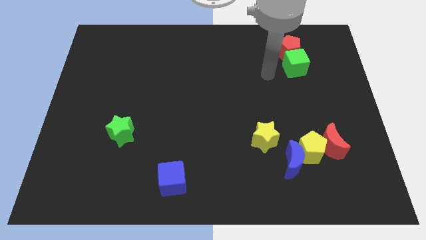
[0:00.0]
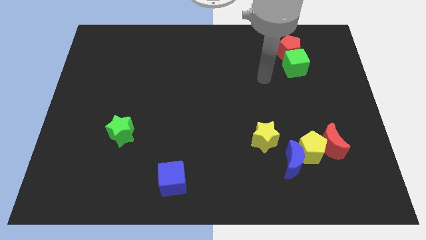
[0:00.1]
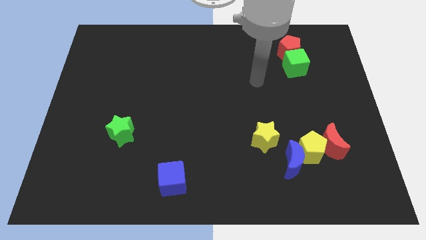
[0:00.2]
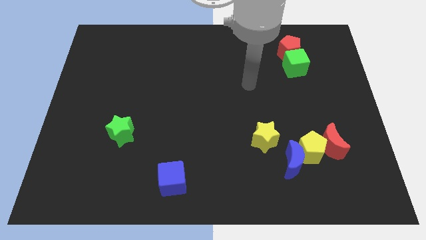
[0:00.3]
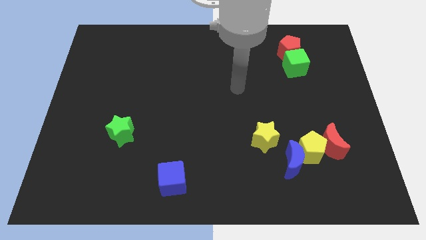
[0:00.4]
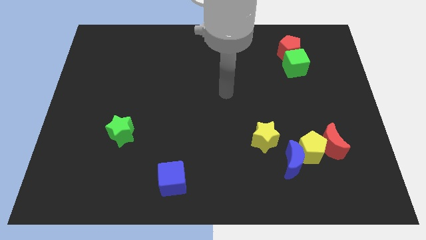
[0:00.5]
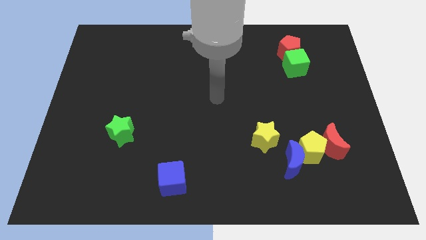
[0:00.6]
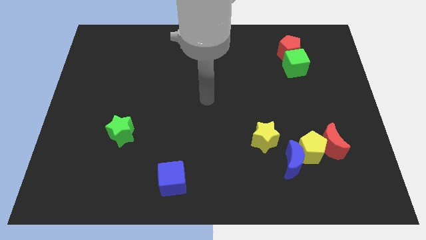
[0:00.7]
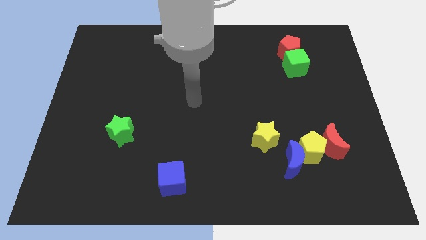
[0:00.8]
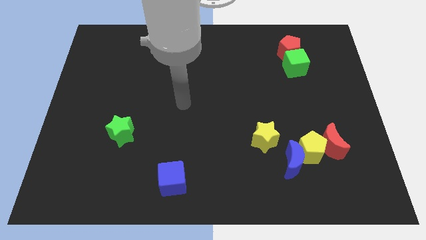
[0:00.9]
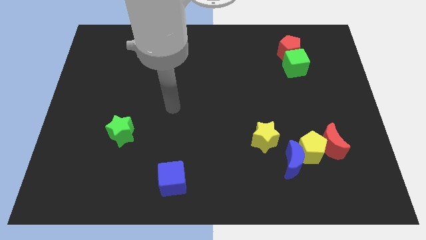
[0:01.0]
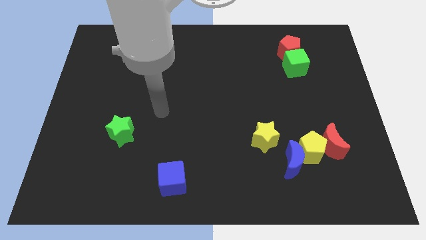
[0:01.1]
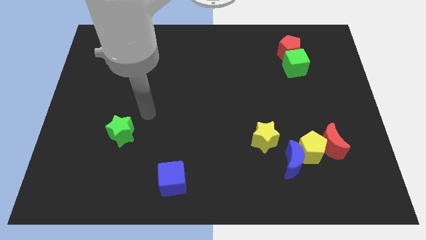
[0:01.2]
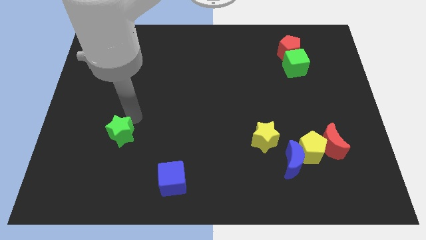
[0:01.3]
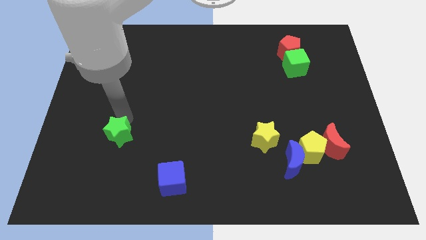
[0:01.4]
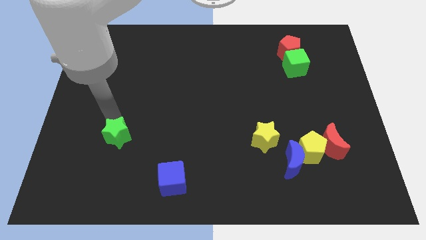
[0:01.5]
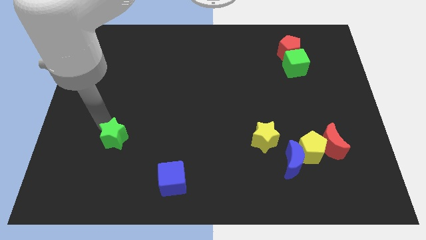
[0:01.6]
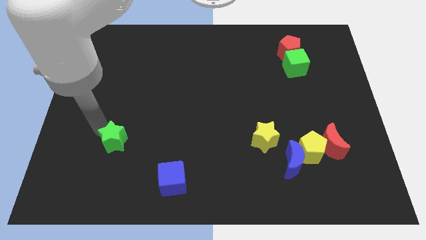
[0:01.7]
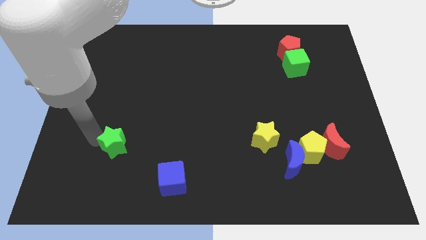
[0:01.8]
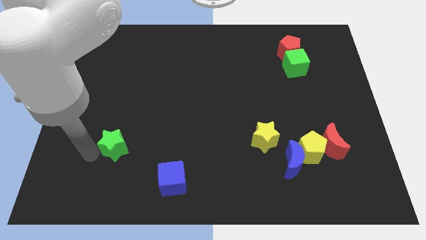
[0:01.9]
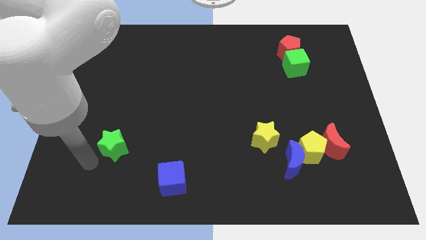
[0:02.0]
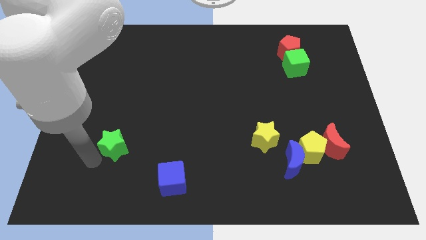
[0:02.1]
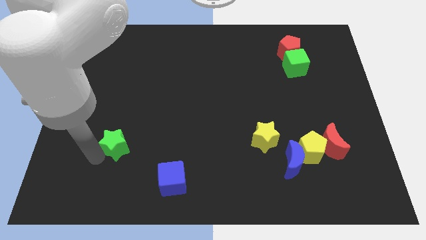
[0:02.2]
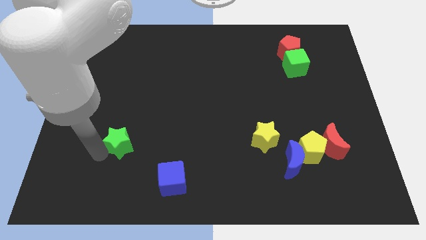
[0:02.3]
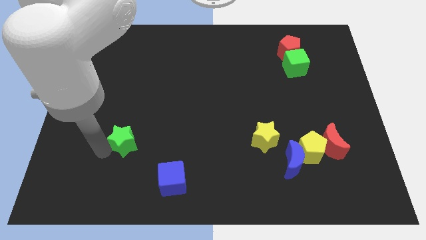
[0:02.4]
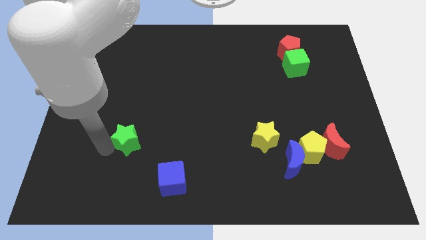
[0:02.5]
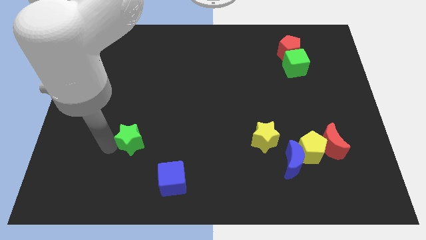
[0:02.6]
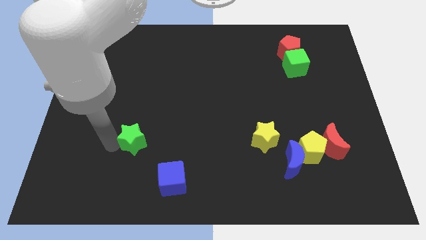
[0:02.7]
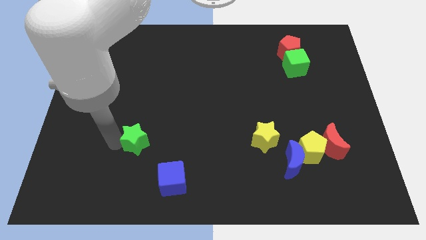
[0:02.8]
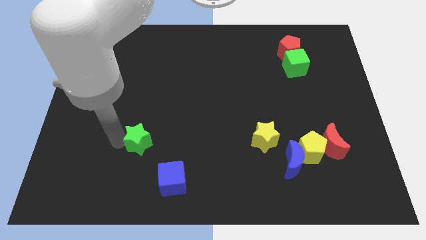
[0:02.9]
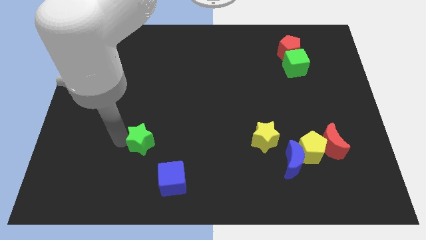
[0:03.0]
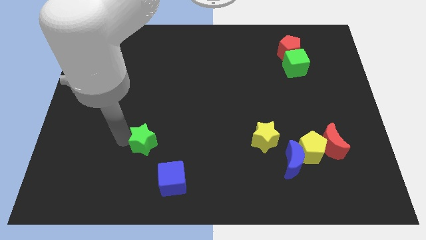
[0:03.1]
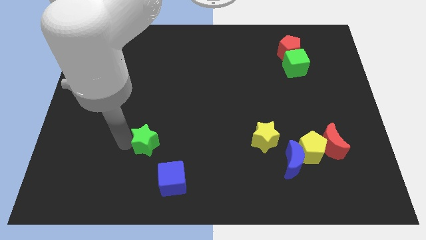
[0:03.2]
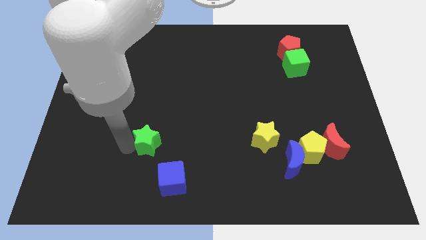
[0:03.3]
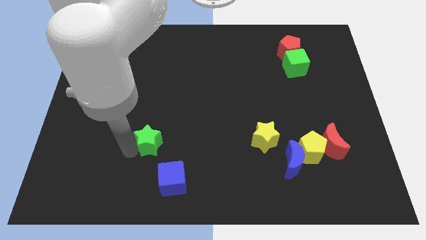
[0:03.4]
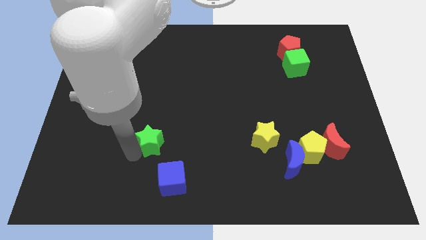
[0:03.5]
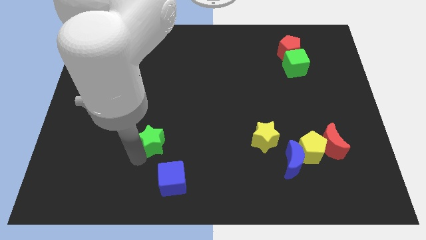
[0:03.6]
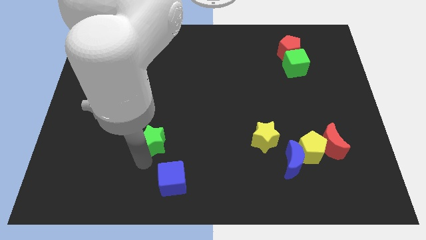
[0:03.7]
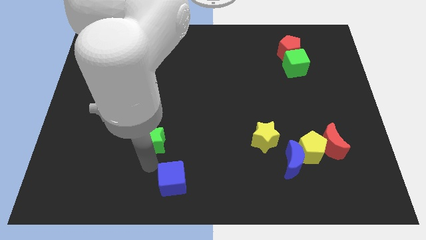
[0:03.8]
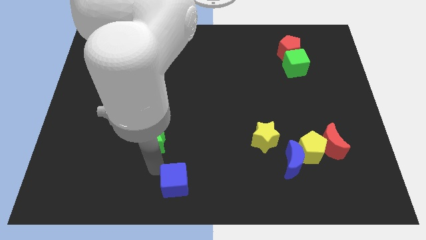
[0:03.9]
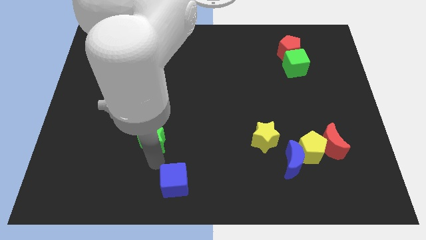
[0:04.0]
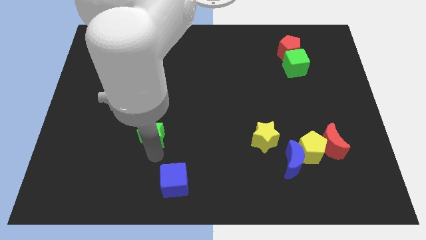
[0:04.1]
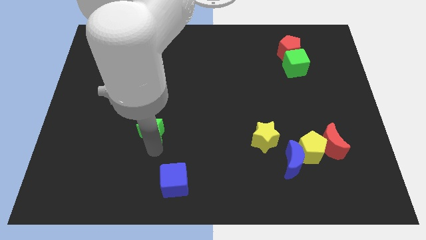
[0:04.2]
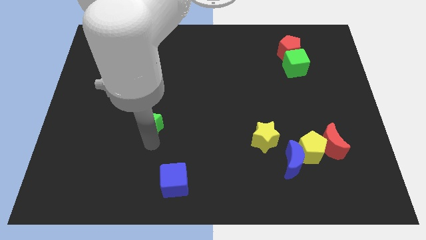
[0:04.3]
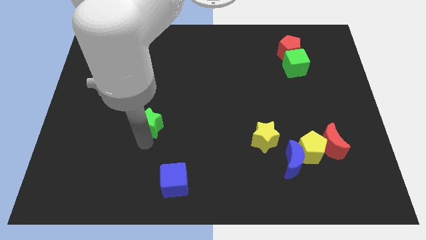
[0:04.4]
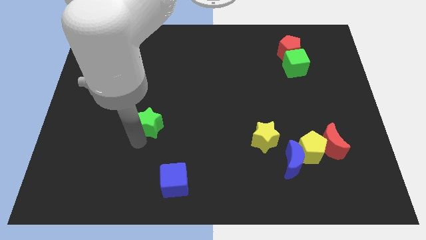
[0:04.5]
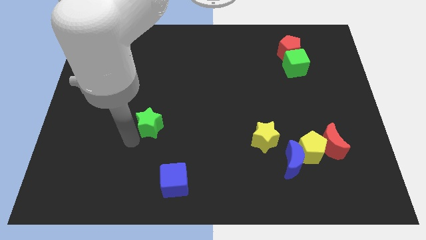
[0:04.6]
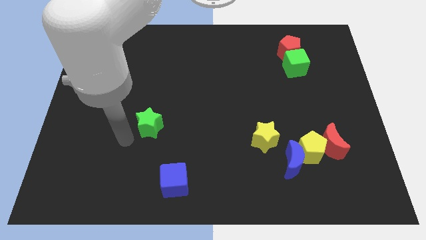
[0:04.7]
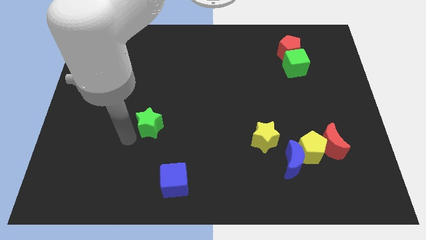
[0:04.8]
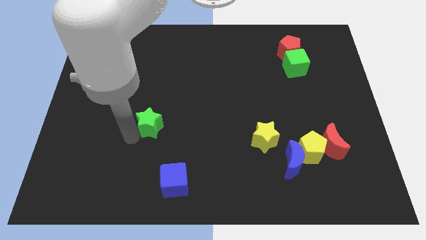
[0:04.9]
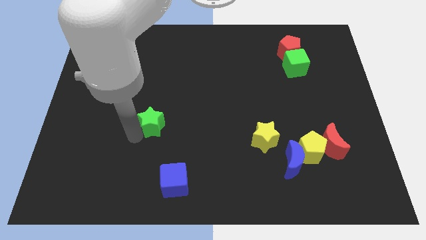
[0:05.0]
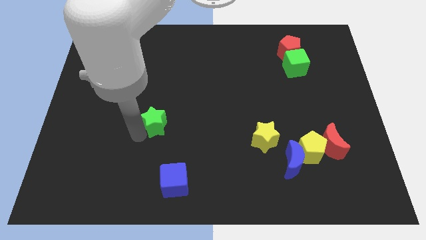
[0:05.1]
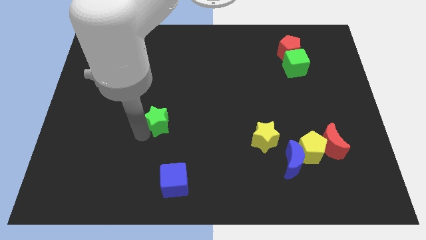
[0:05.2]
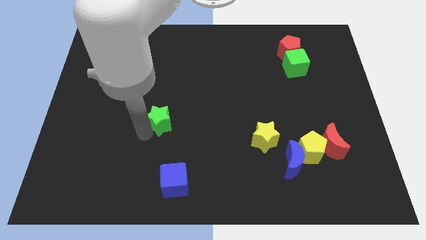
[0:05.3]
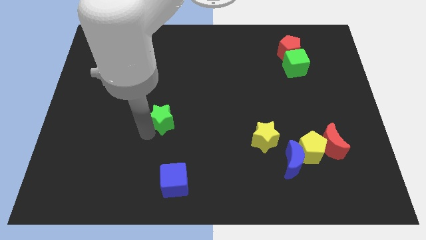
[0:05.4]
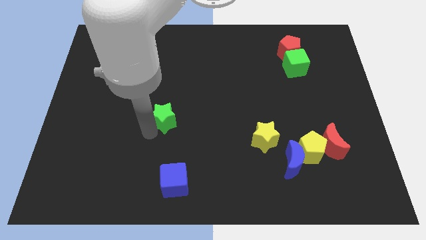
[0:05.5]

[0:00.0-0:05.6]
move the green star to the middle of the board

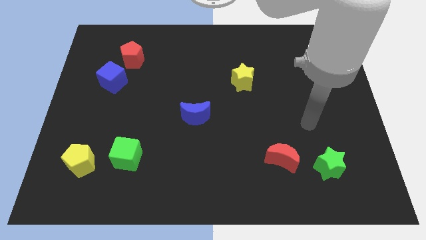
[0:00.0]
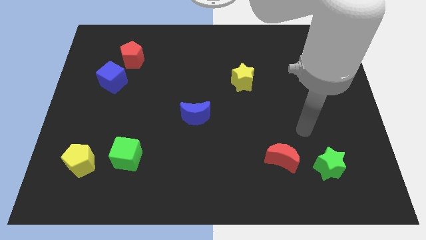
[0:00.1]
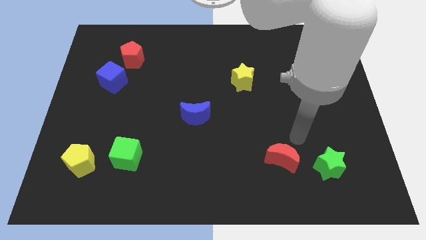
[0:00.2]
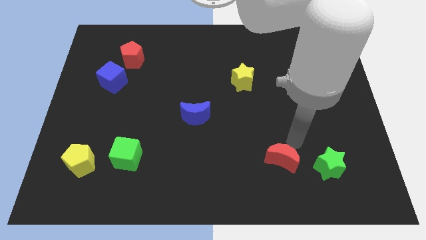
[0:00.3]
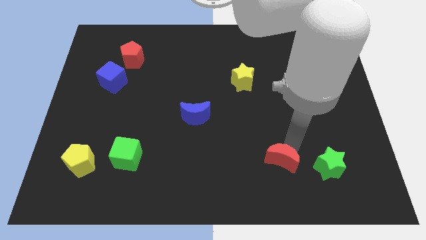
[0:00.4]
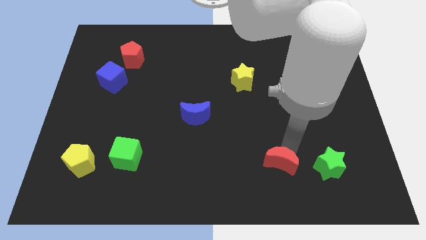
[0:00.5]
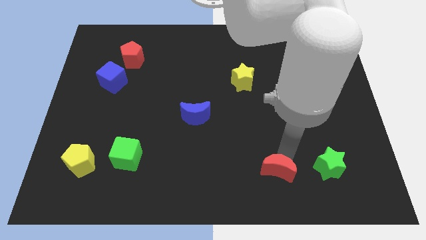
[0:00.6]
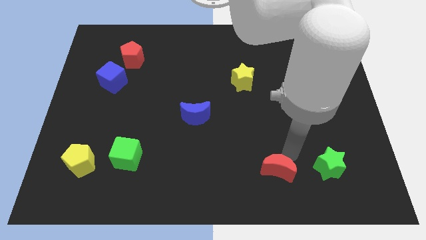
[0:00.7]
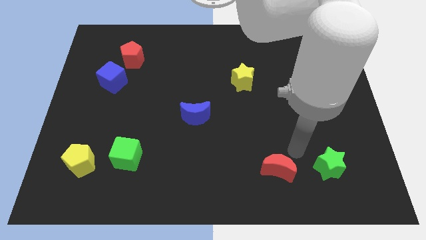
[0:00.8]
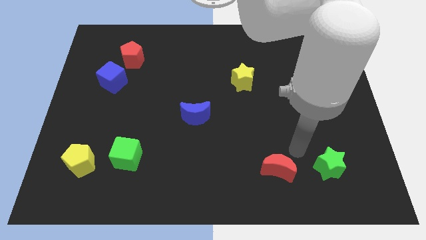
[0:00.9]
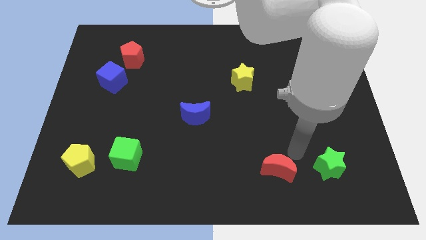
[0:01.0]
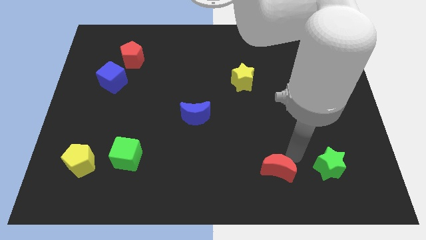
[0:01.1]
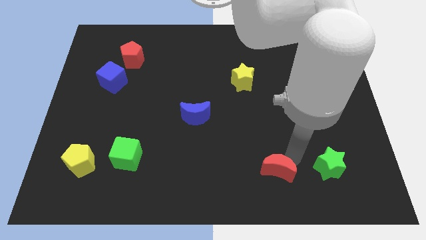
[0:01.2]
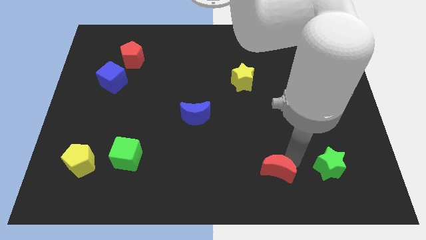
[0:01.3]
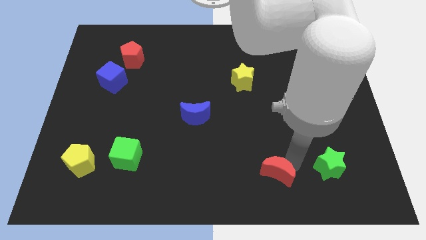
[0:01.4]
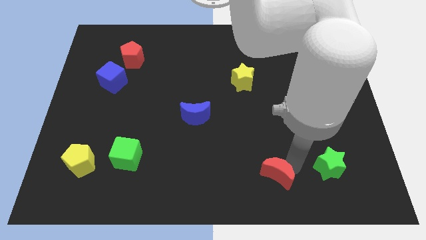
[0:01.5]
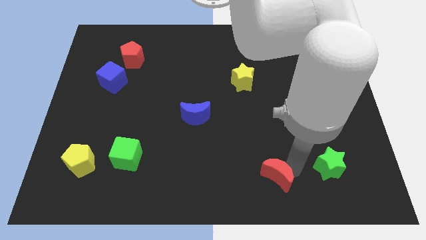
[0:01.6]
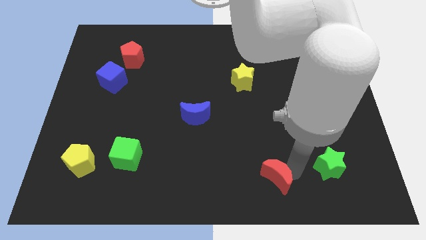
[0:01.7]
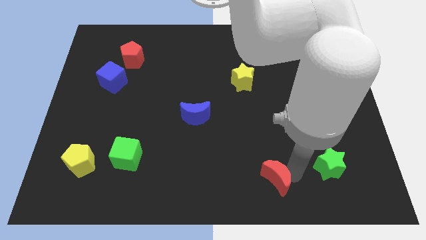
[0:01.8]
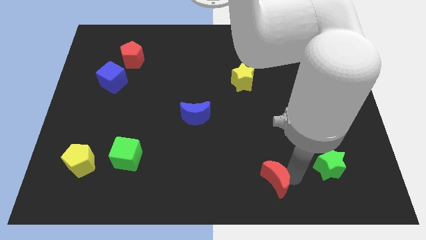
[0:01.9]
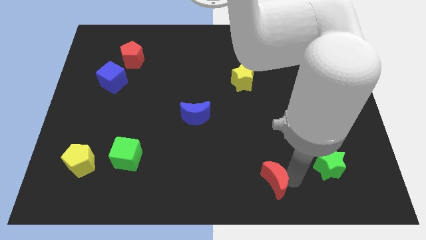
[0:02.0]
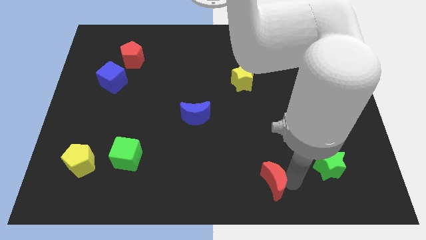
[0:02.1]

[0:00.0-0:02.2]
move the red moon to the bottom side
